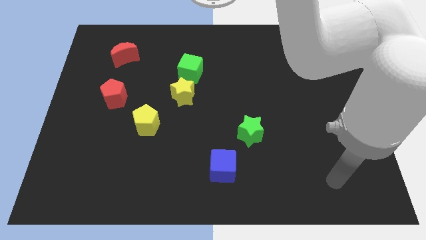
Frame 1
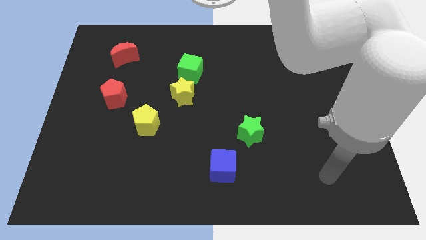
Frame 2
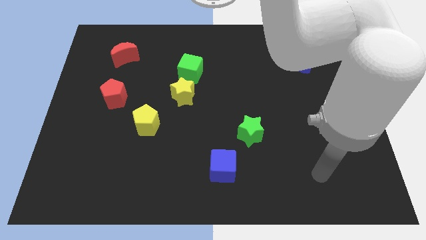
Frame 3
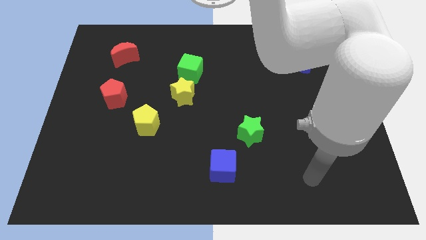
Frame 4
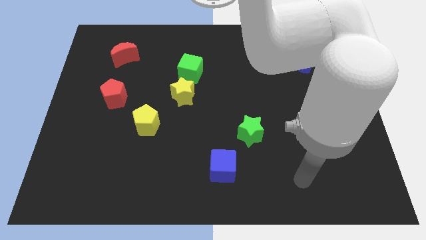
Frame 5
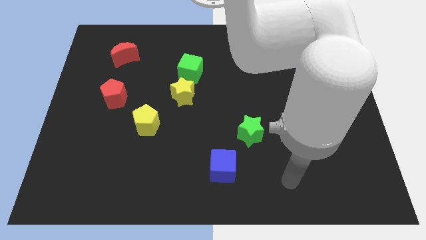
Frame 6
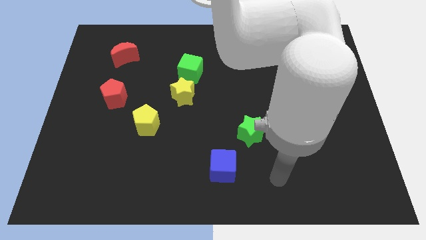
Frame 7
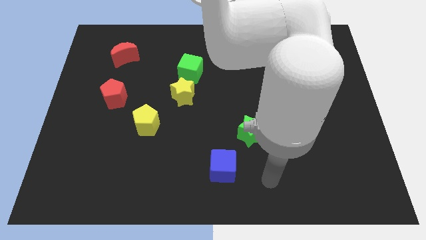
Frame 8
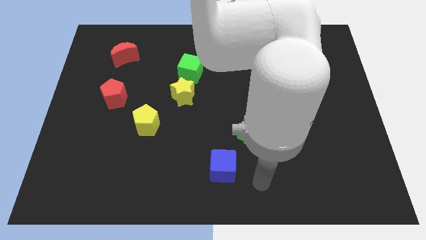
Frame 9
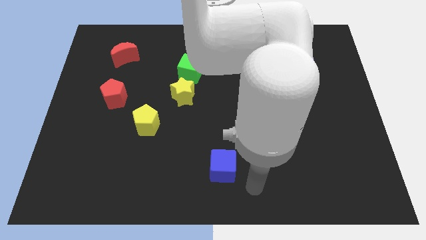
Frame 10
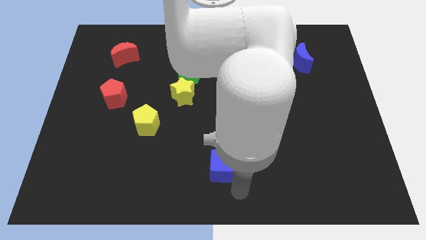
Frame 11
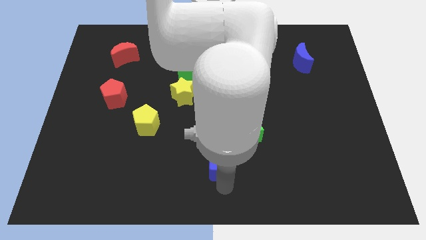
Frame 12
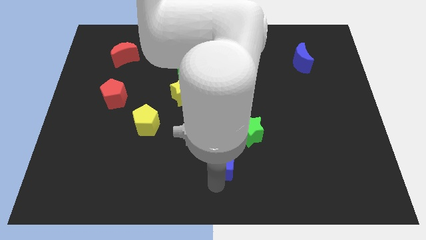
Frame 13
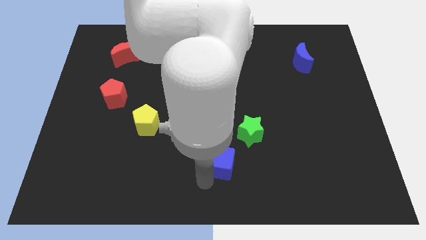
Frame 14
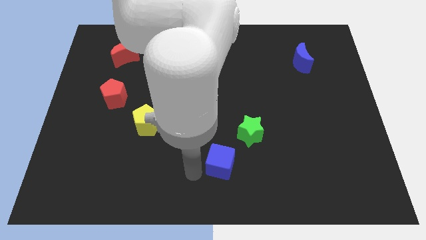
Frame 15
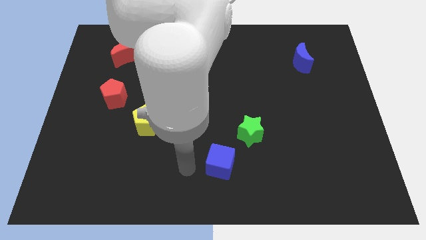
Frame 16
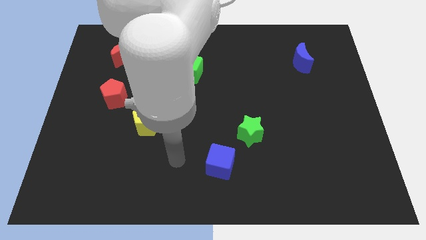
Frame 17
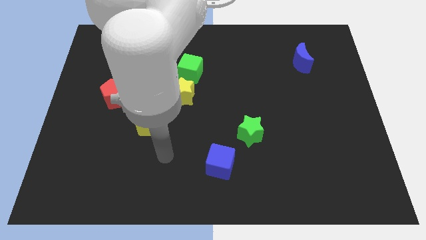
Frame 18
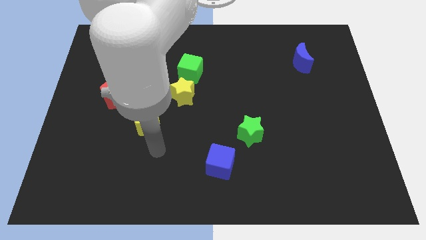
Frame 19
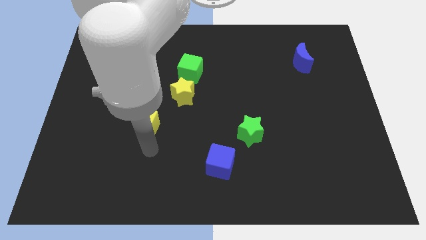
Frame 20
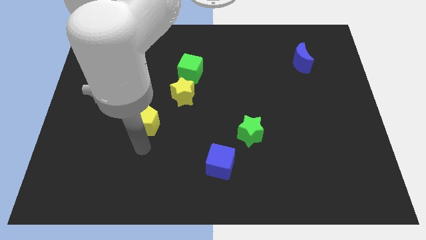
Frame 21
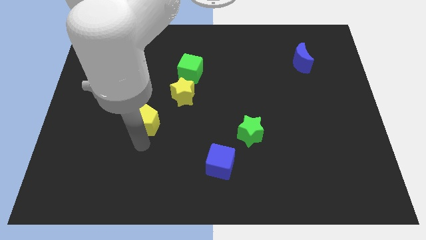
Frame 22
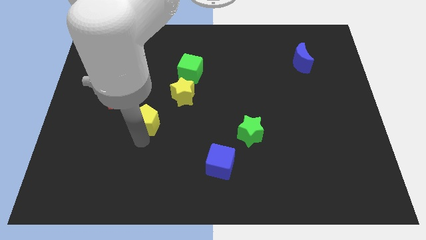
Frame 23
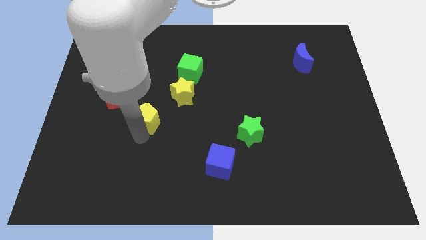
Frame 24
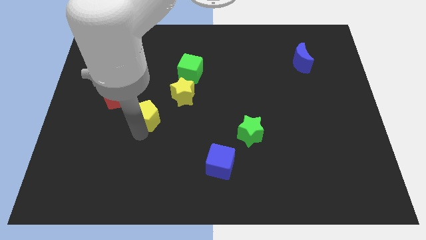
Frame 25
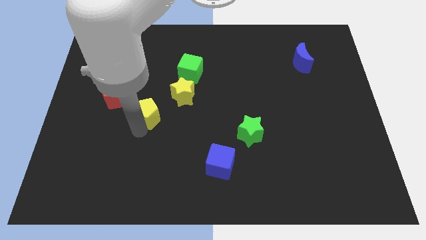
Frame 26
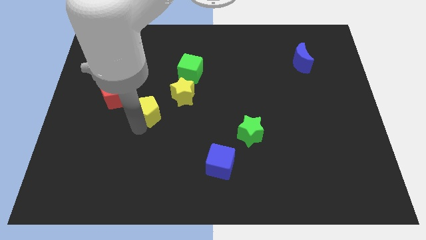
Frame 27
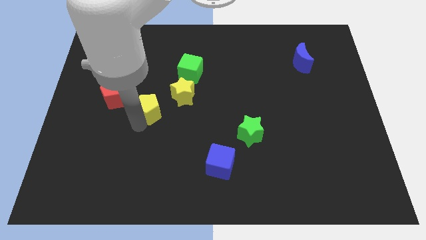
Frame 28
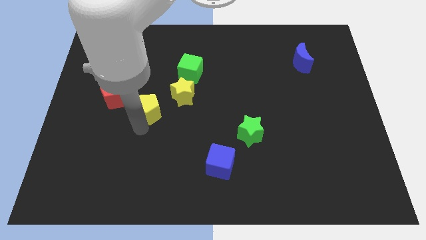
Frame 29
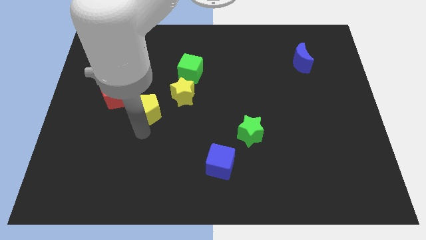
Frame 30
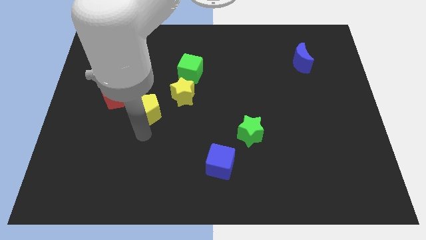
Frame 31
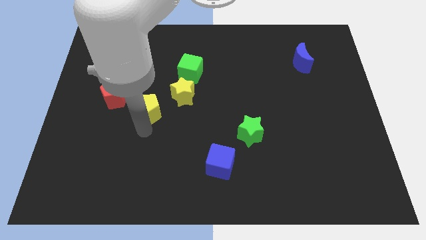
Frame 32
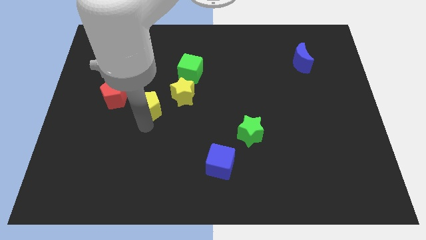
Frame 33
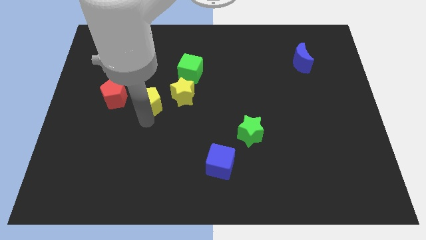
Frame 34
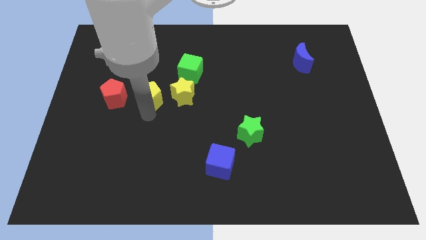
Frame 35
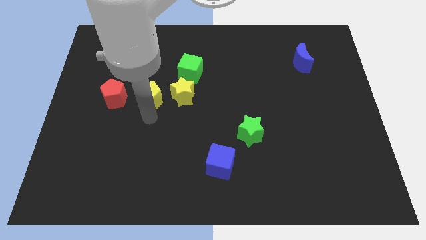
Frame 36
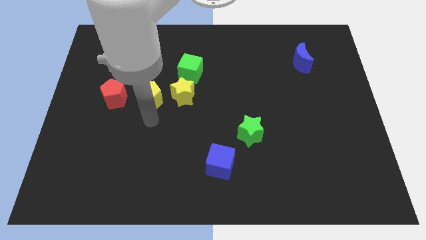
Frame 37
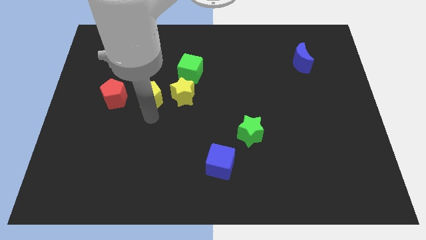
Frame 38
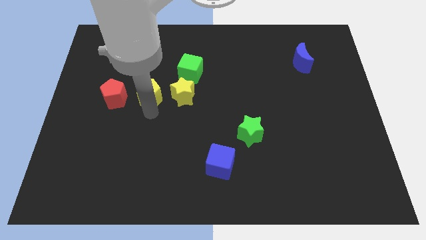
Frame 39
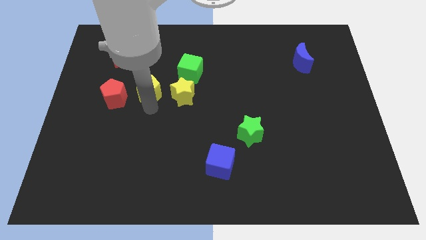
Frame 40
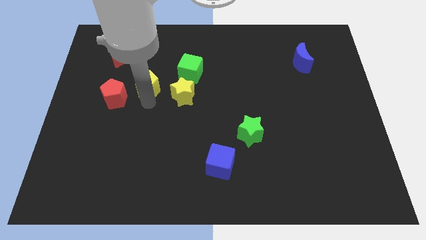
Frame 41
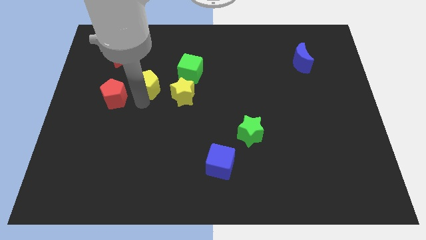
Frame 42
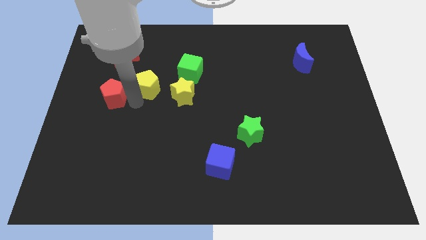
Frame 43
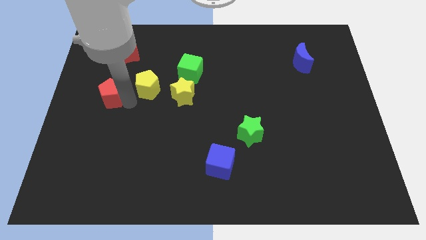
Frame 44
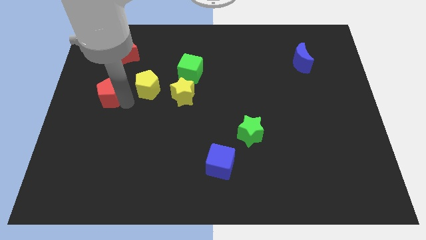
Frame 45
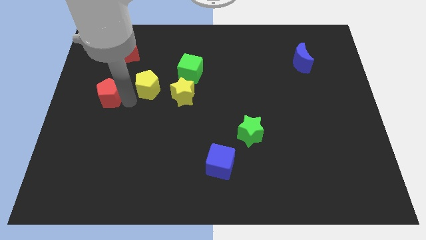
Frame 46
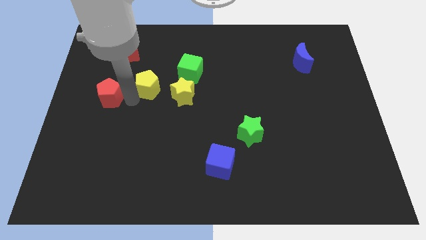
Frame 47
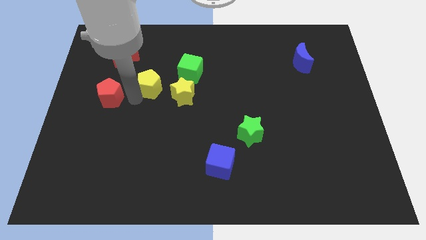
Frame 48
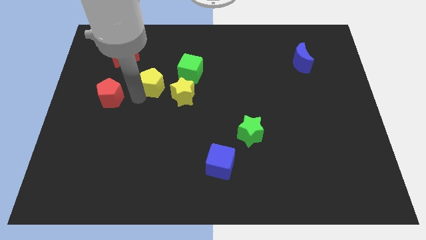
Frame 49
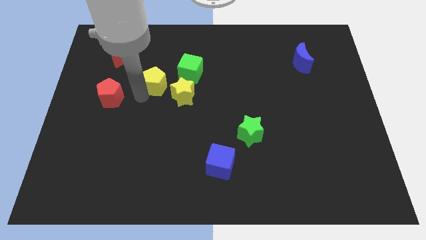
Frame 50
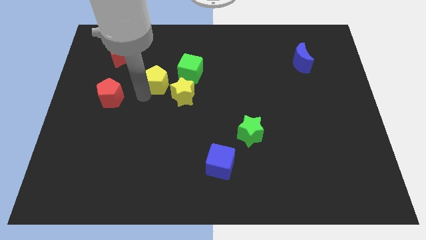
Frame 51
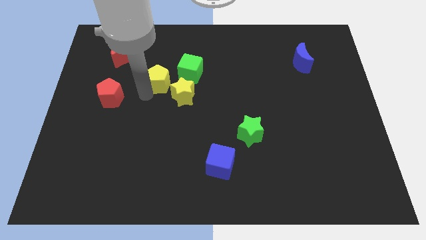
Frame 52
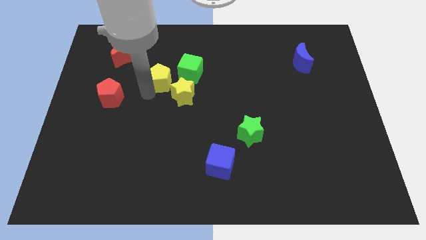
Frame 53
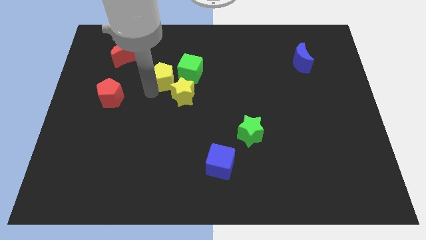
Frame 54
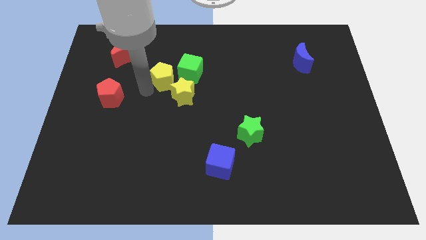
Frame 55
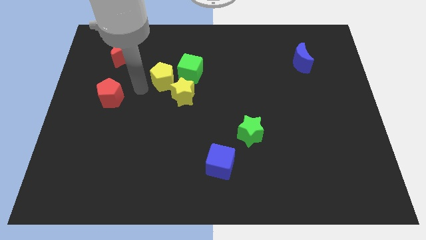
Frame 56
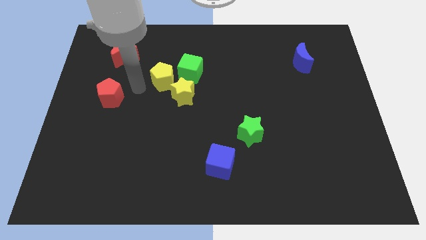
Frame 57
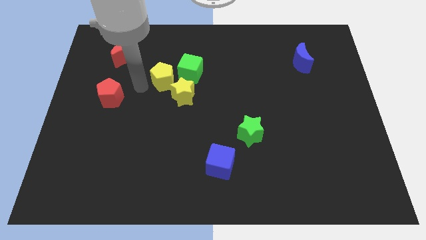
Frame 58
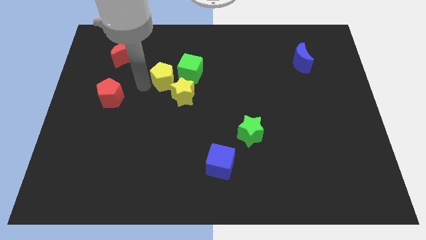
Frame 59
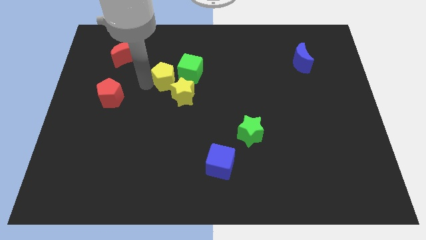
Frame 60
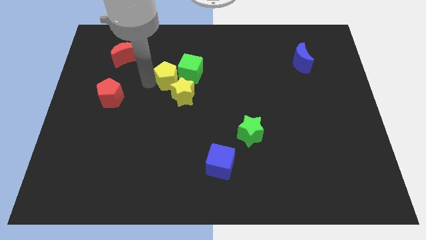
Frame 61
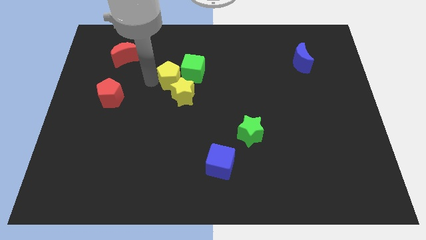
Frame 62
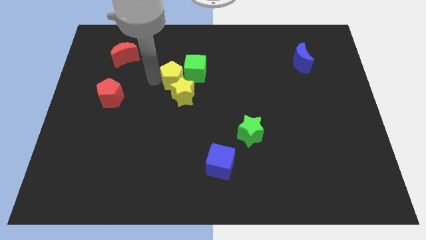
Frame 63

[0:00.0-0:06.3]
move the yellow pentagon close to the green cube

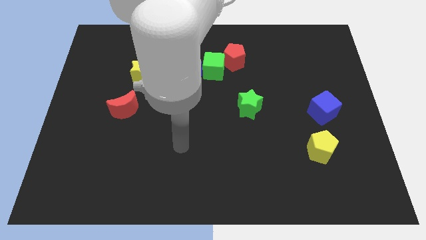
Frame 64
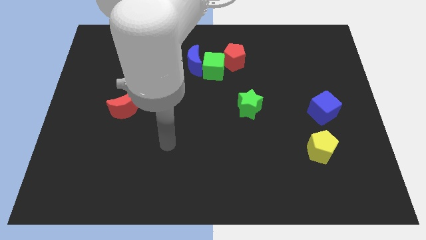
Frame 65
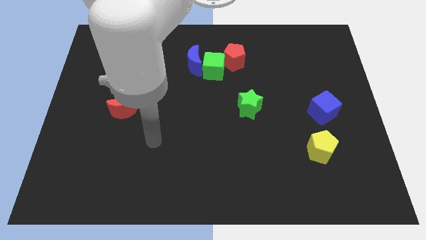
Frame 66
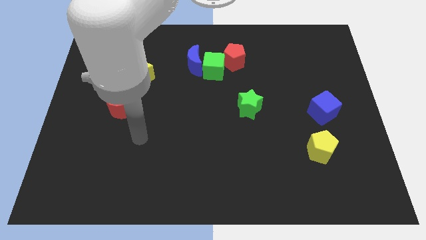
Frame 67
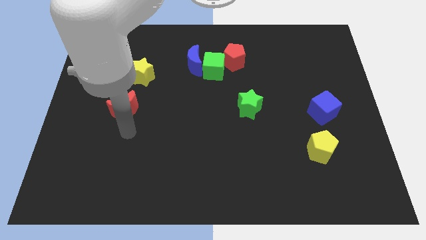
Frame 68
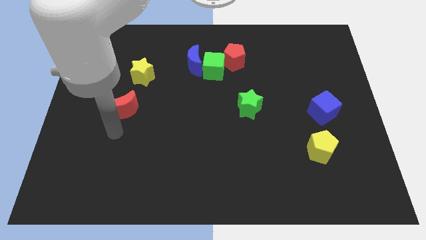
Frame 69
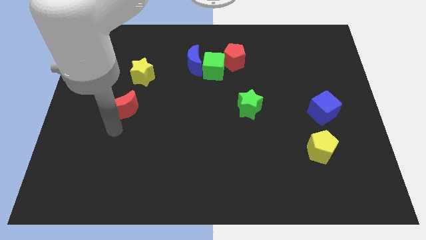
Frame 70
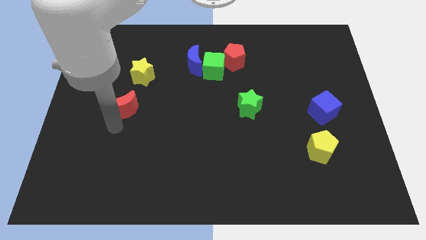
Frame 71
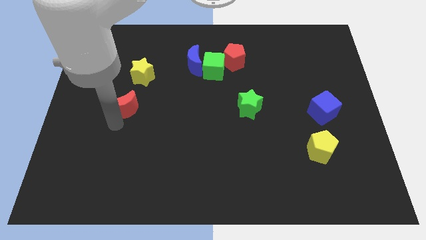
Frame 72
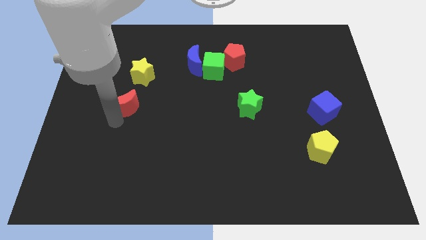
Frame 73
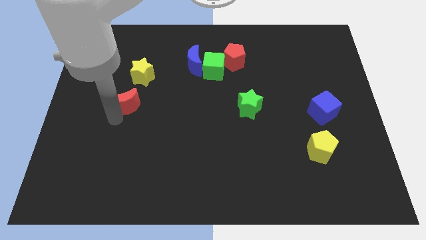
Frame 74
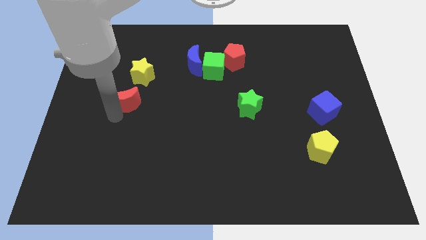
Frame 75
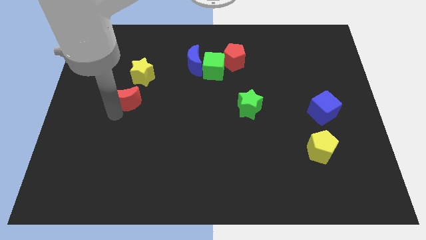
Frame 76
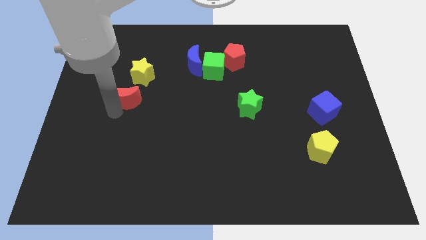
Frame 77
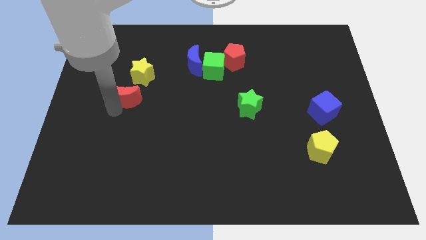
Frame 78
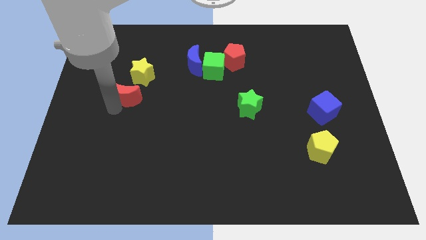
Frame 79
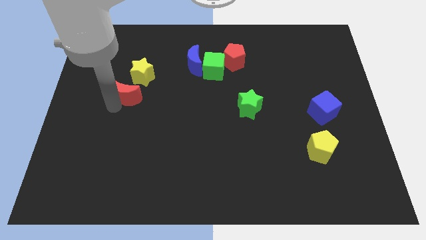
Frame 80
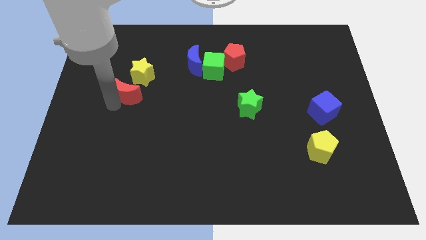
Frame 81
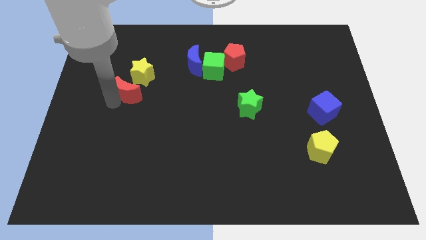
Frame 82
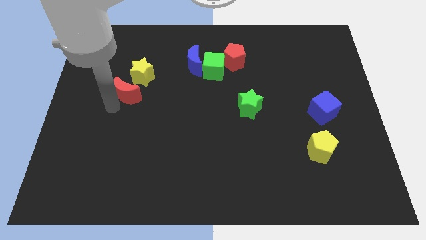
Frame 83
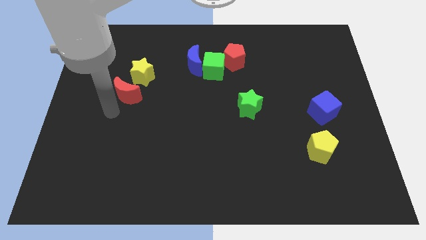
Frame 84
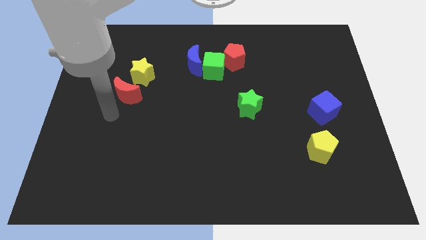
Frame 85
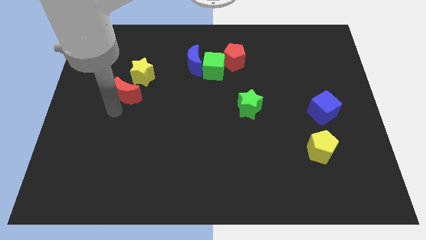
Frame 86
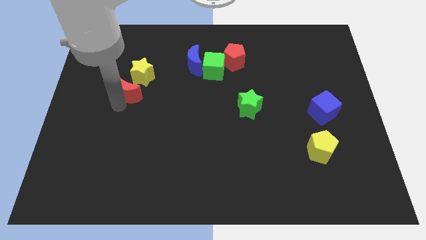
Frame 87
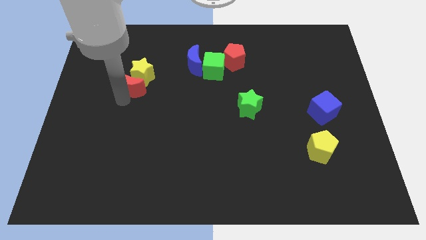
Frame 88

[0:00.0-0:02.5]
put the red moon towards the yellow star
